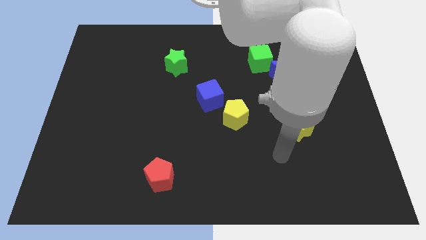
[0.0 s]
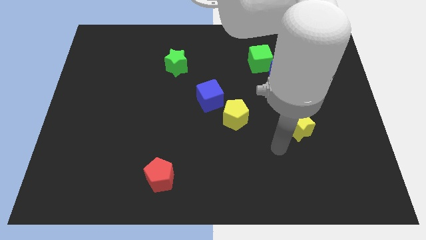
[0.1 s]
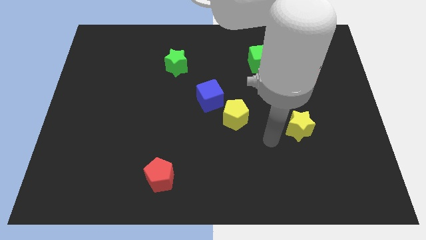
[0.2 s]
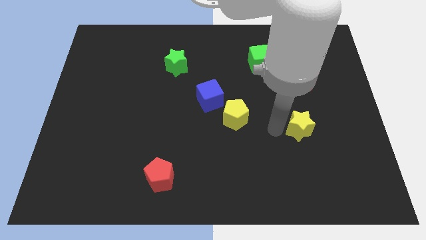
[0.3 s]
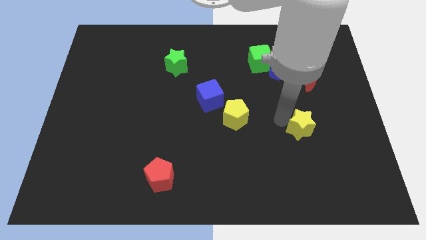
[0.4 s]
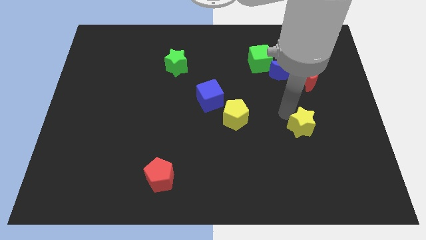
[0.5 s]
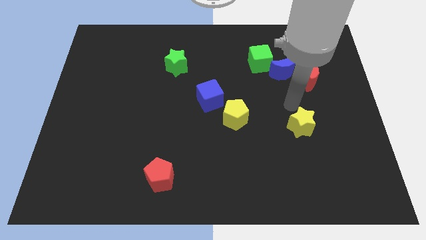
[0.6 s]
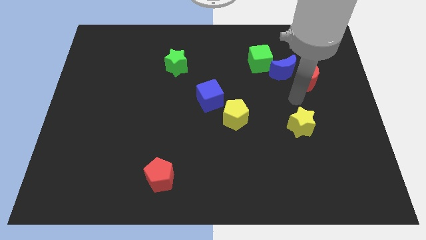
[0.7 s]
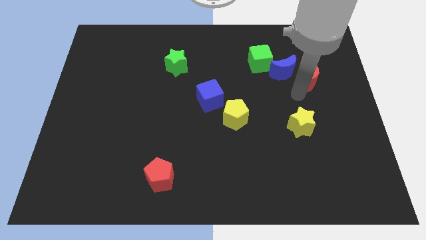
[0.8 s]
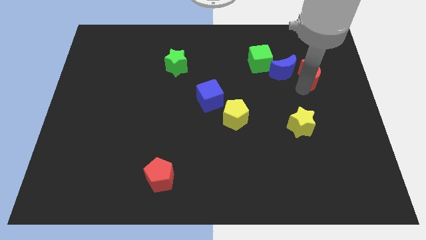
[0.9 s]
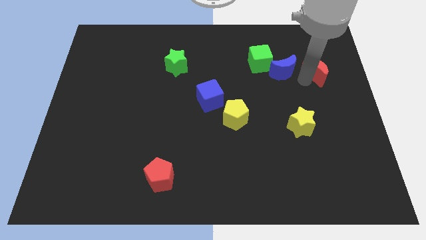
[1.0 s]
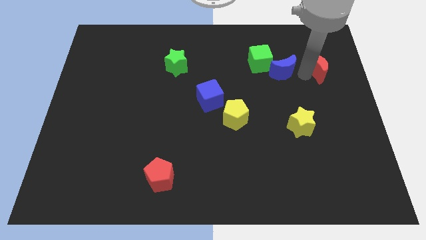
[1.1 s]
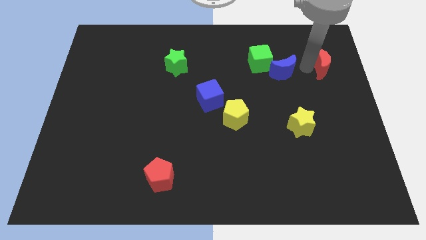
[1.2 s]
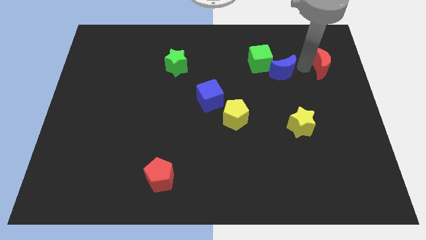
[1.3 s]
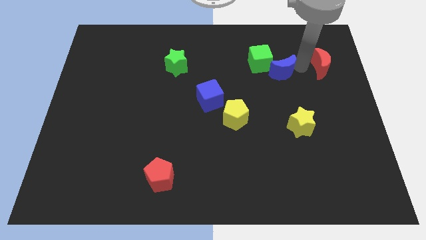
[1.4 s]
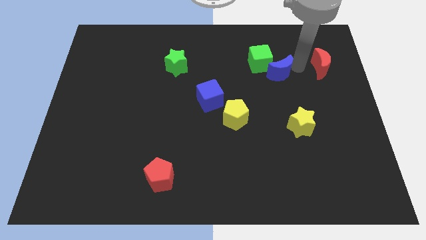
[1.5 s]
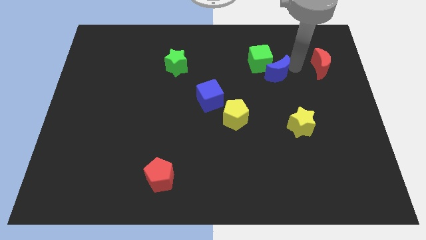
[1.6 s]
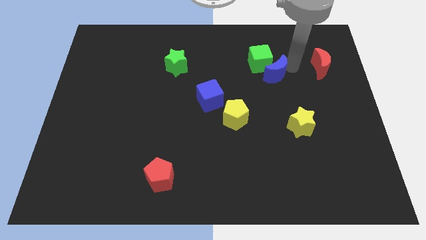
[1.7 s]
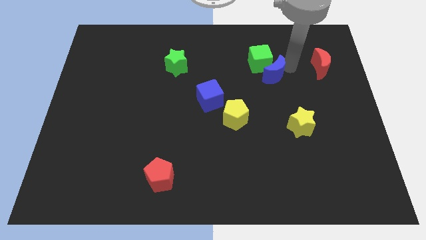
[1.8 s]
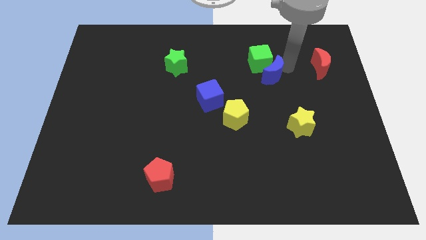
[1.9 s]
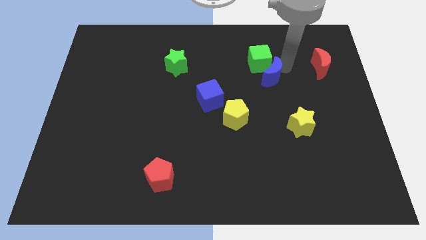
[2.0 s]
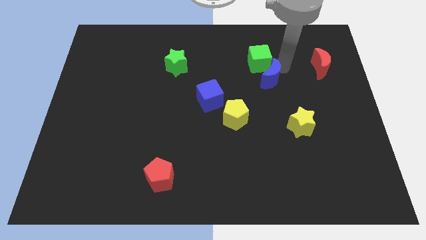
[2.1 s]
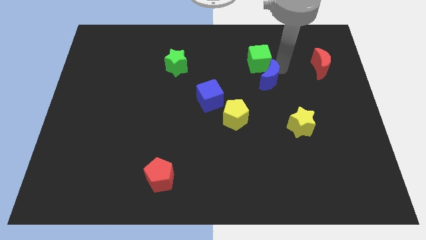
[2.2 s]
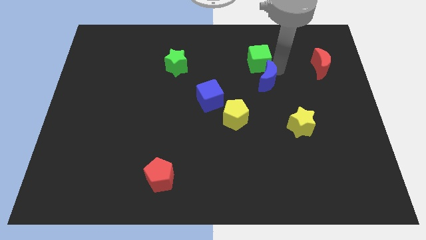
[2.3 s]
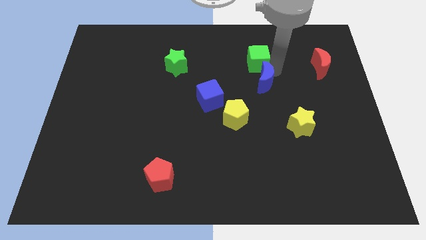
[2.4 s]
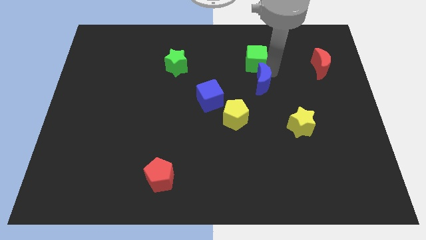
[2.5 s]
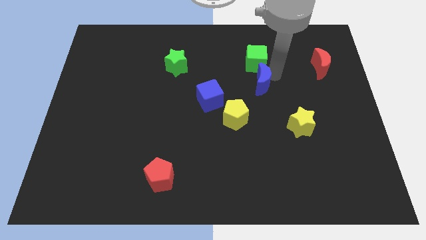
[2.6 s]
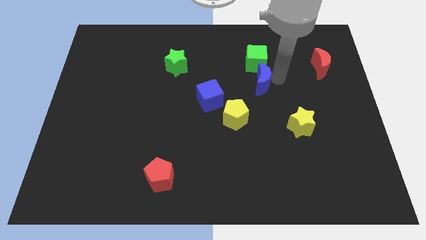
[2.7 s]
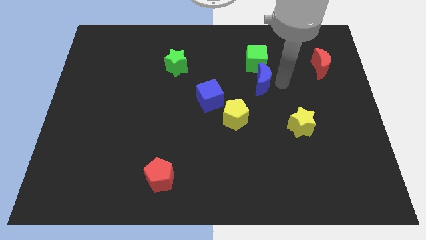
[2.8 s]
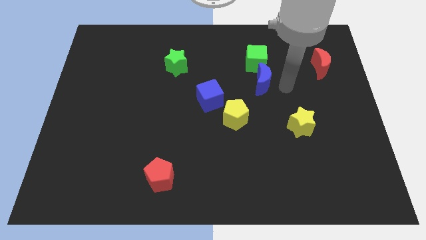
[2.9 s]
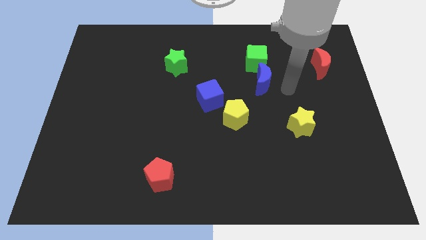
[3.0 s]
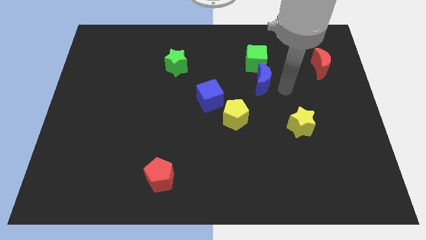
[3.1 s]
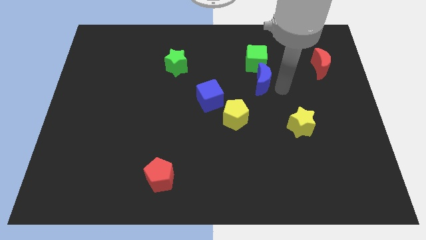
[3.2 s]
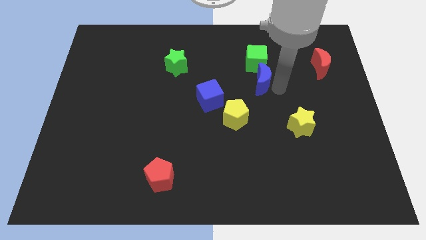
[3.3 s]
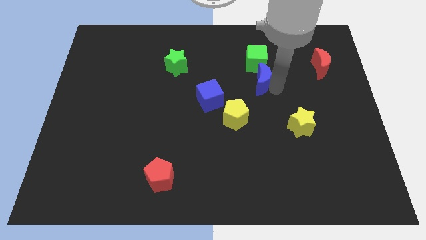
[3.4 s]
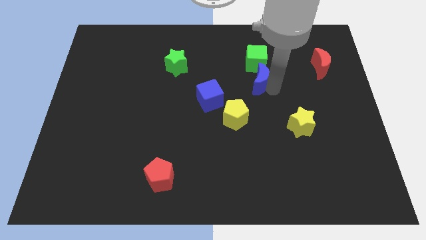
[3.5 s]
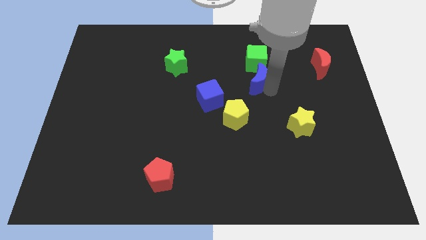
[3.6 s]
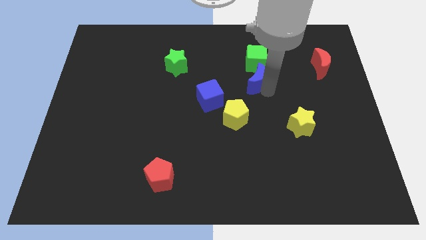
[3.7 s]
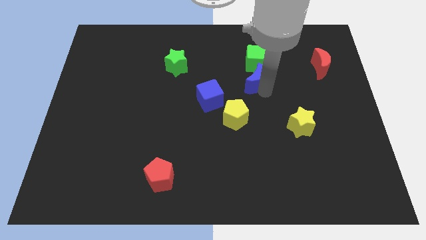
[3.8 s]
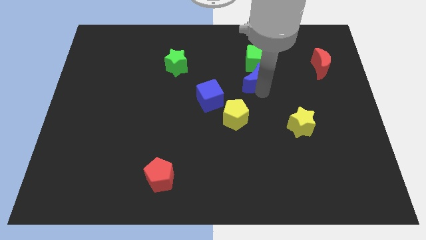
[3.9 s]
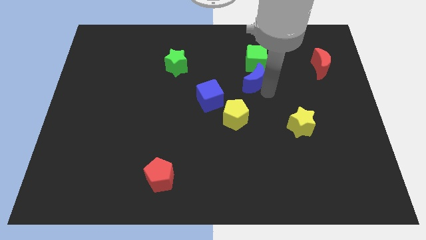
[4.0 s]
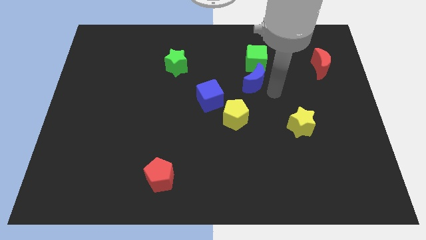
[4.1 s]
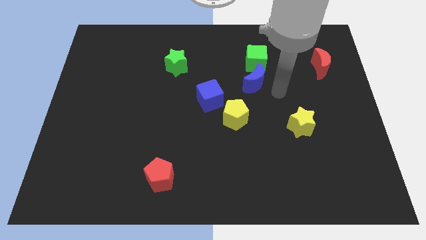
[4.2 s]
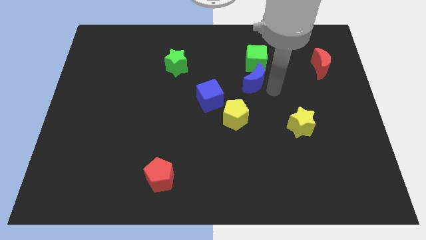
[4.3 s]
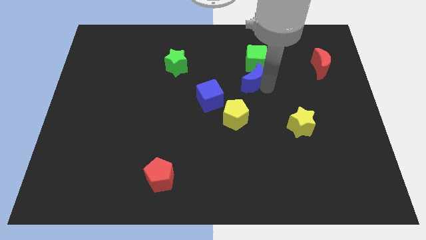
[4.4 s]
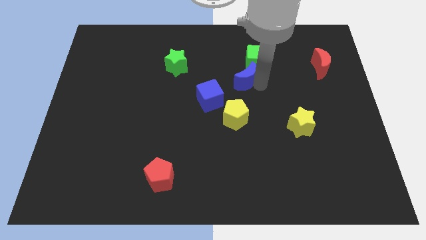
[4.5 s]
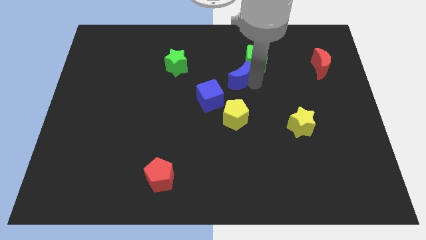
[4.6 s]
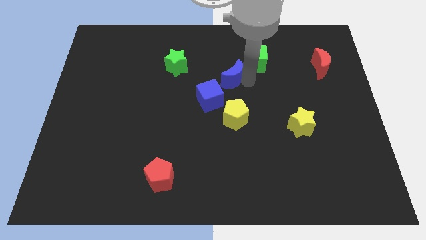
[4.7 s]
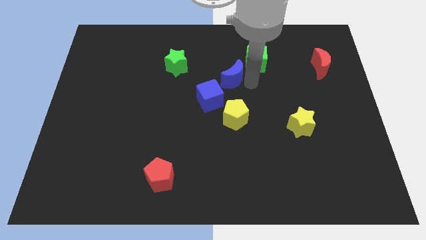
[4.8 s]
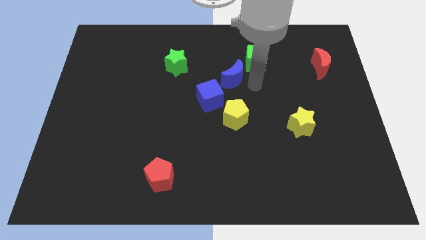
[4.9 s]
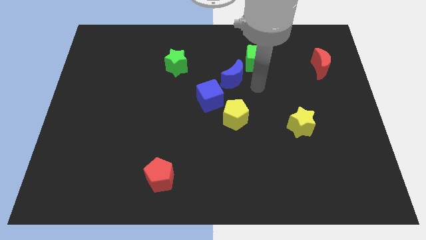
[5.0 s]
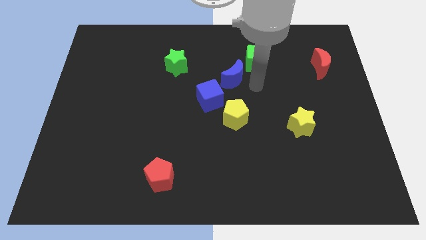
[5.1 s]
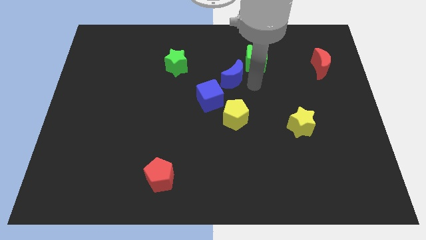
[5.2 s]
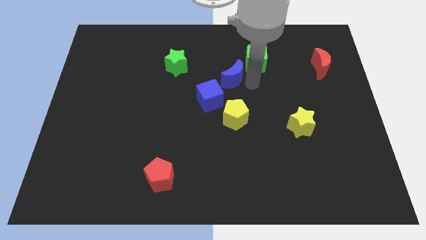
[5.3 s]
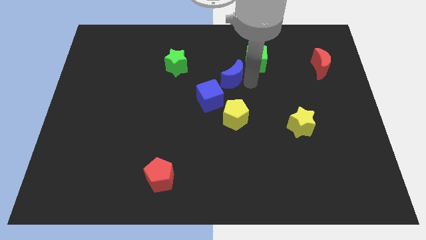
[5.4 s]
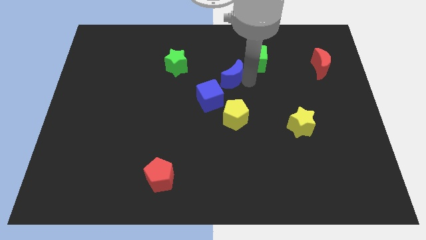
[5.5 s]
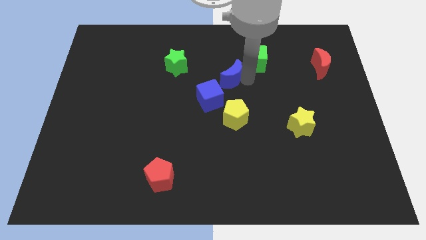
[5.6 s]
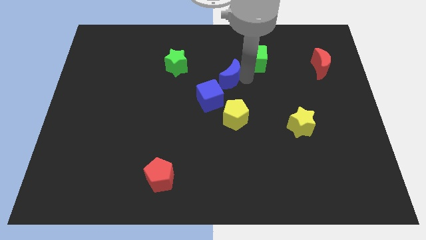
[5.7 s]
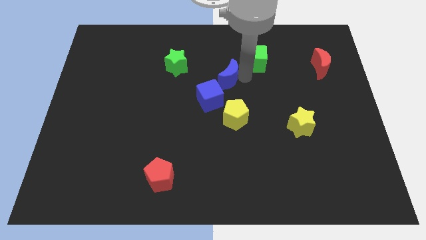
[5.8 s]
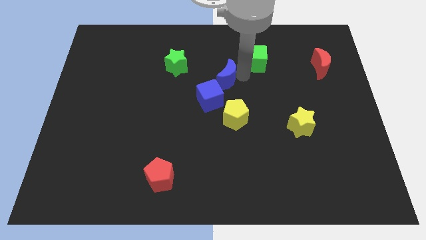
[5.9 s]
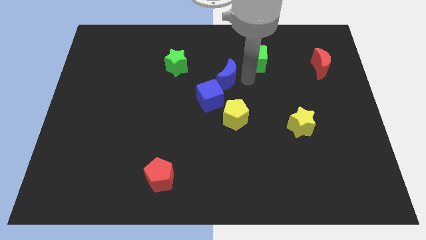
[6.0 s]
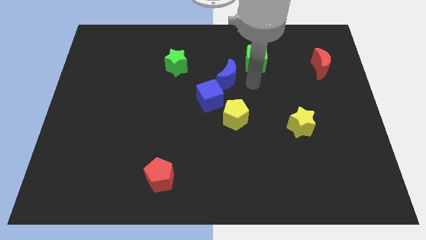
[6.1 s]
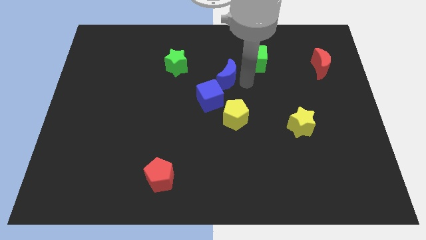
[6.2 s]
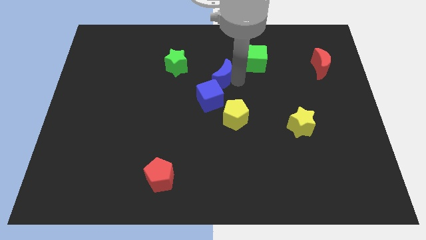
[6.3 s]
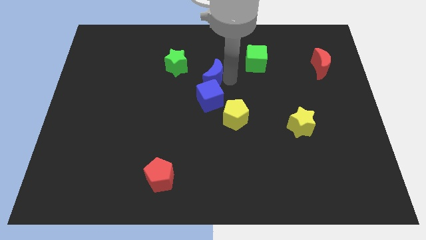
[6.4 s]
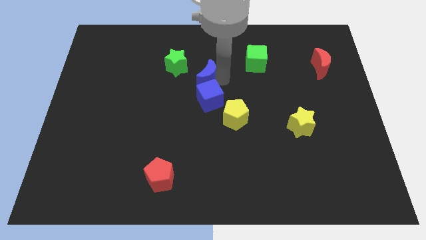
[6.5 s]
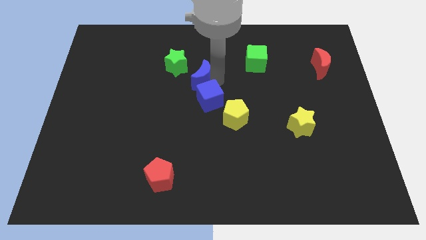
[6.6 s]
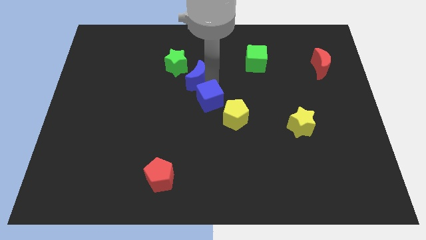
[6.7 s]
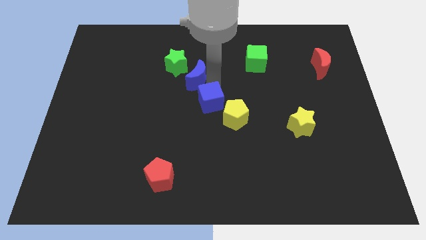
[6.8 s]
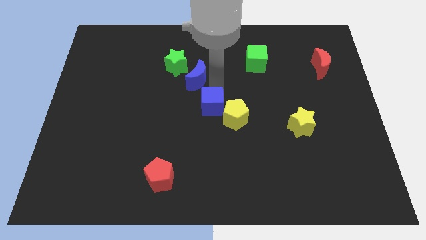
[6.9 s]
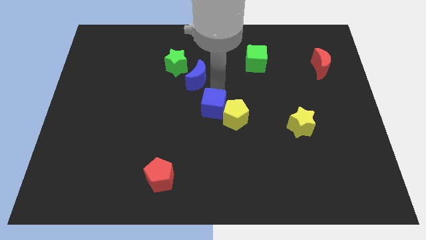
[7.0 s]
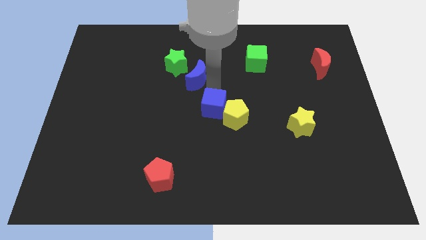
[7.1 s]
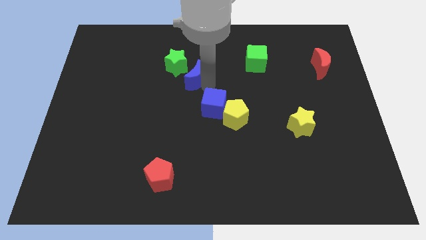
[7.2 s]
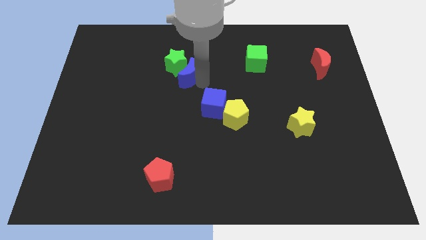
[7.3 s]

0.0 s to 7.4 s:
slide the blue moon close to the green star
